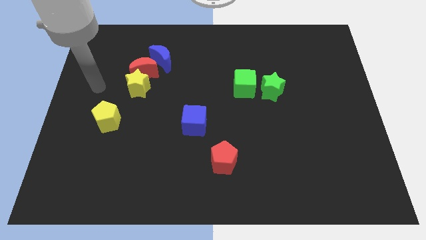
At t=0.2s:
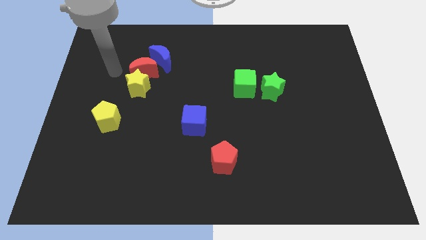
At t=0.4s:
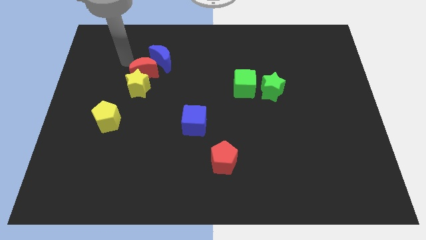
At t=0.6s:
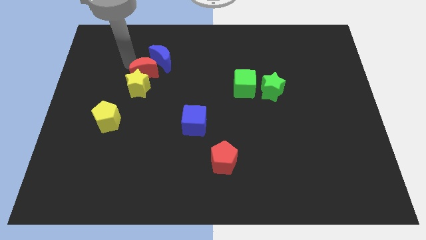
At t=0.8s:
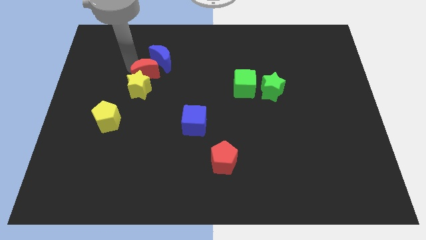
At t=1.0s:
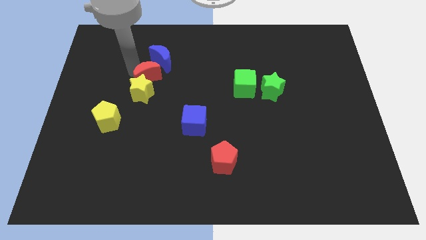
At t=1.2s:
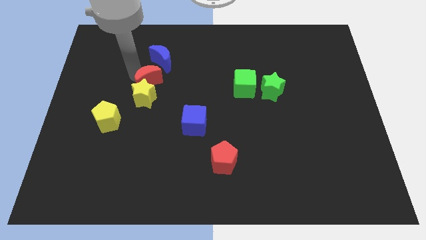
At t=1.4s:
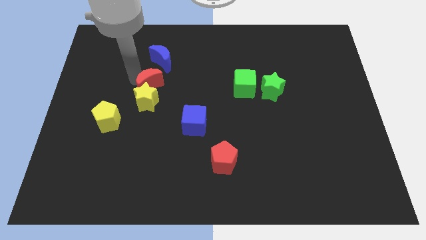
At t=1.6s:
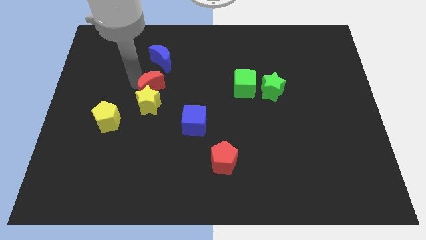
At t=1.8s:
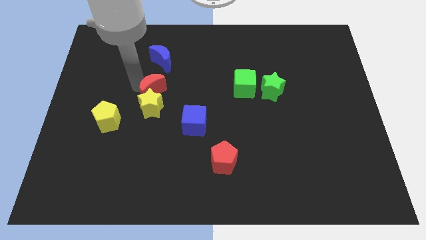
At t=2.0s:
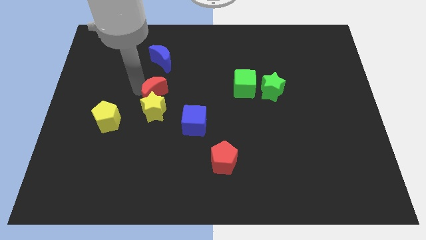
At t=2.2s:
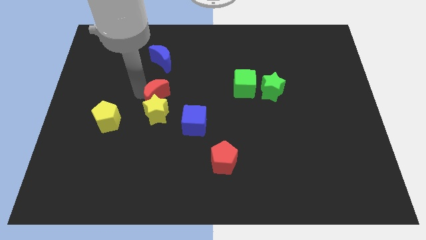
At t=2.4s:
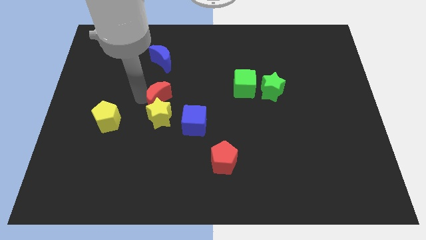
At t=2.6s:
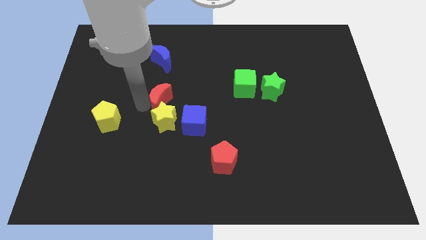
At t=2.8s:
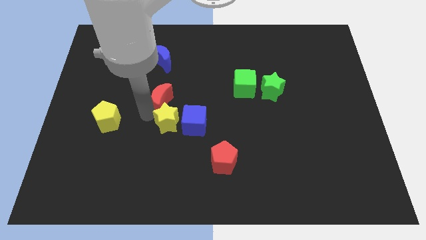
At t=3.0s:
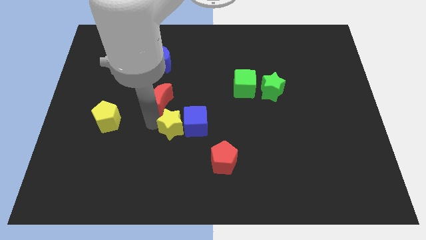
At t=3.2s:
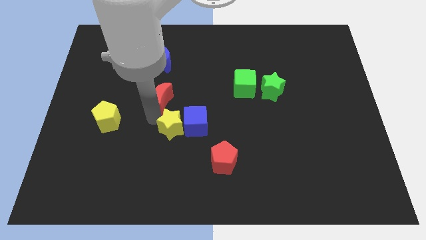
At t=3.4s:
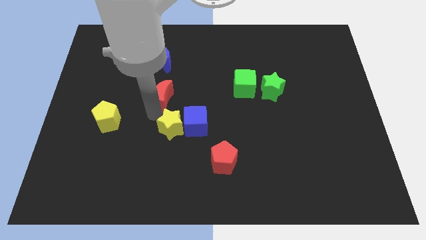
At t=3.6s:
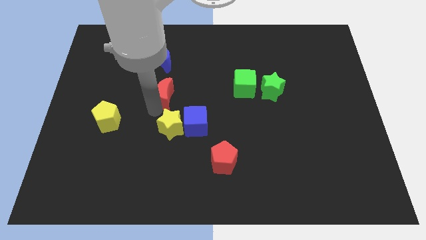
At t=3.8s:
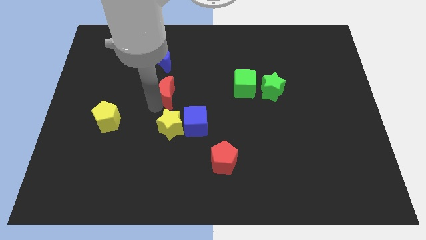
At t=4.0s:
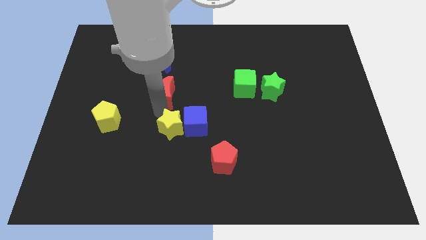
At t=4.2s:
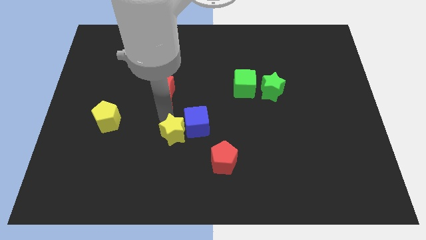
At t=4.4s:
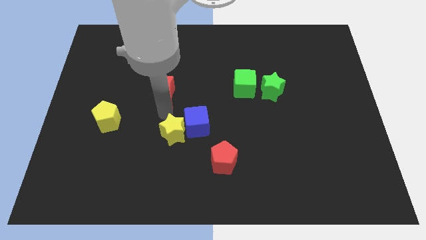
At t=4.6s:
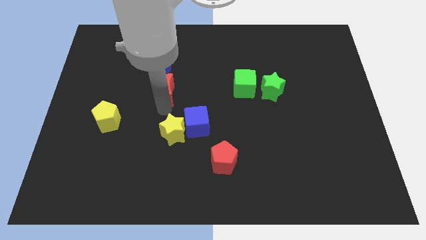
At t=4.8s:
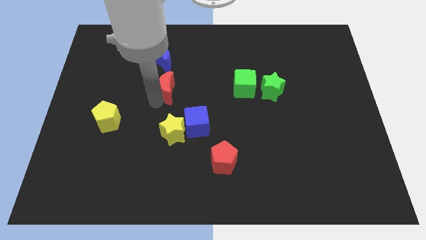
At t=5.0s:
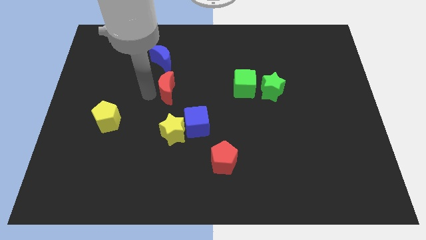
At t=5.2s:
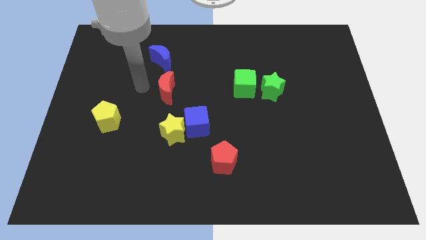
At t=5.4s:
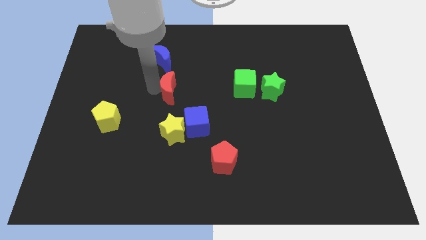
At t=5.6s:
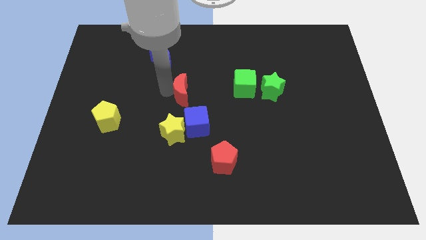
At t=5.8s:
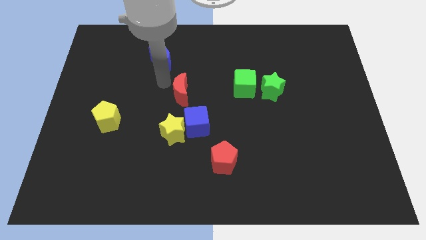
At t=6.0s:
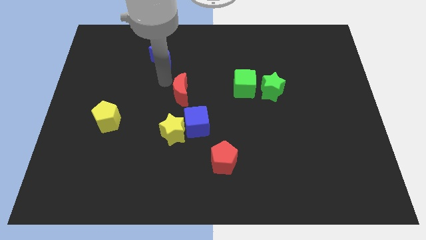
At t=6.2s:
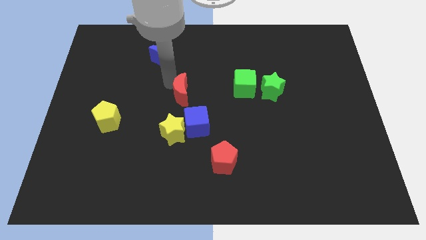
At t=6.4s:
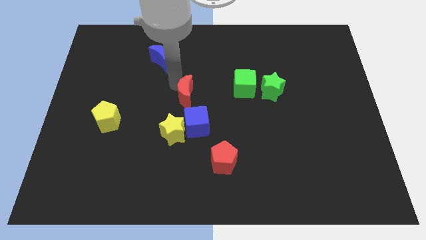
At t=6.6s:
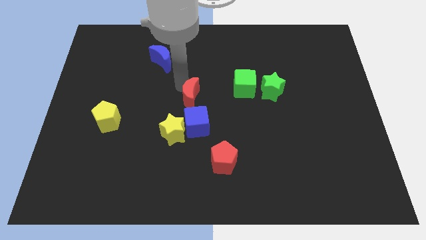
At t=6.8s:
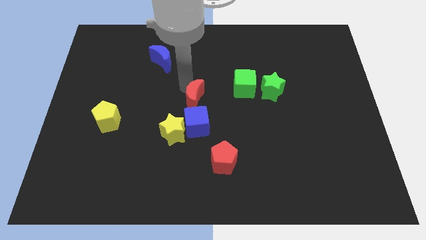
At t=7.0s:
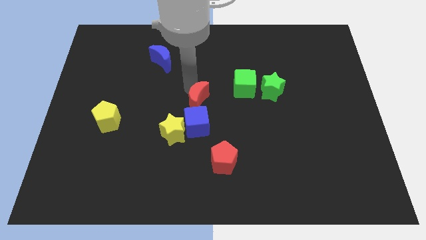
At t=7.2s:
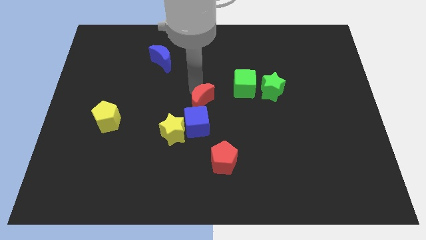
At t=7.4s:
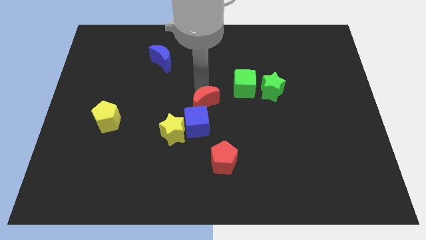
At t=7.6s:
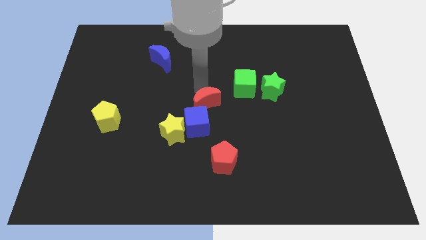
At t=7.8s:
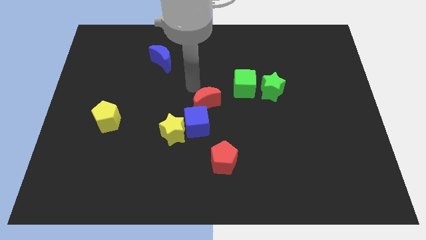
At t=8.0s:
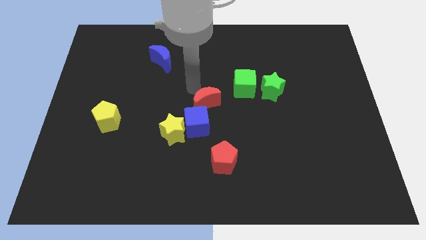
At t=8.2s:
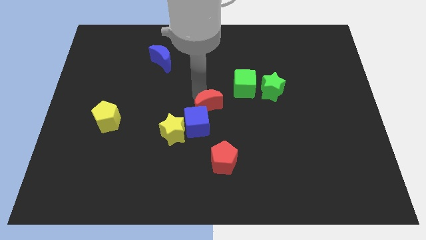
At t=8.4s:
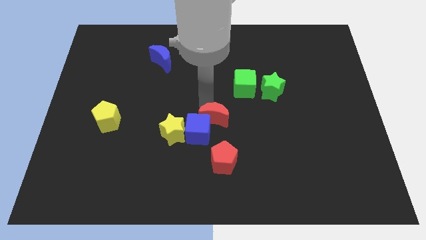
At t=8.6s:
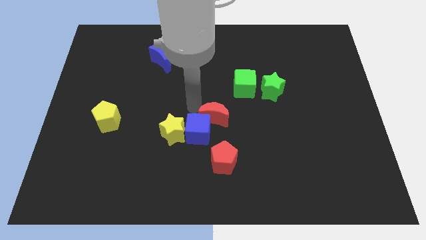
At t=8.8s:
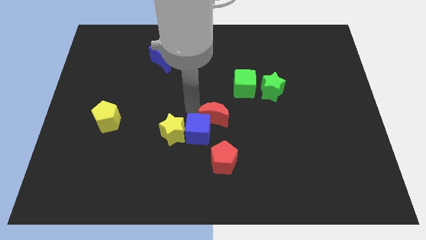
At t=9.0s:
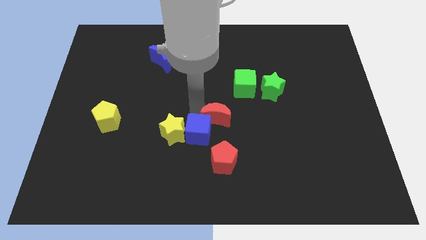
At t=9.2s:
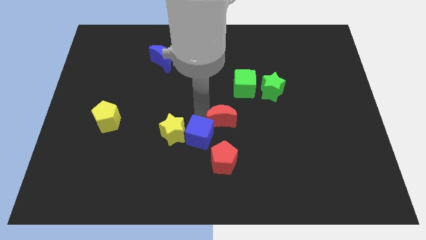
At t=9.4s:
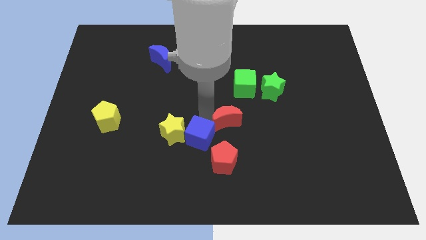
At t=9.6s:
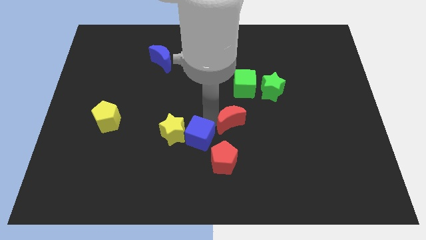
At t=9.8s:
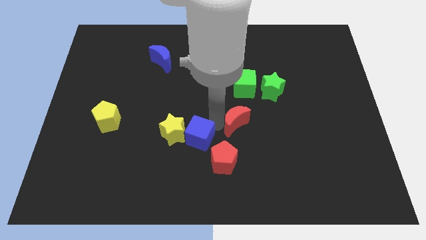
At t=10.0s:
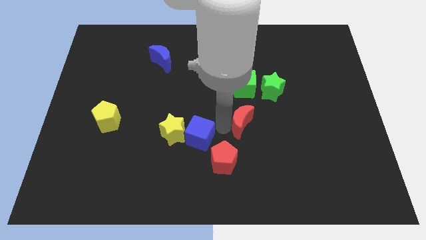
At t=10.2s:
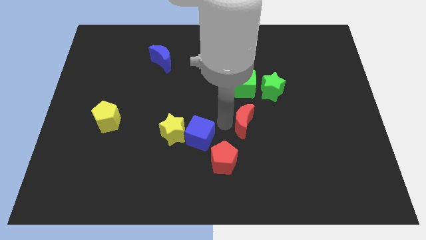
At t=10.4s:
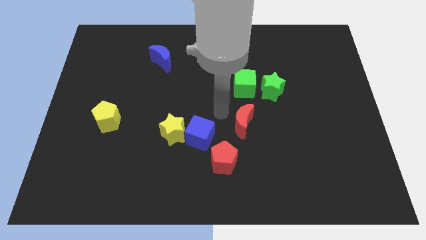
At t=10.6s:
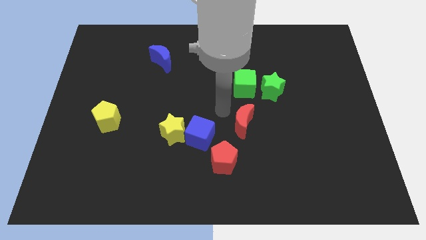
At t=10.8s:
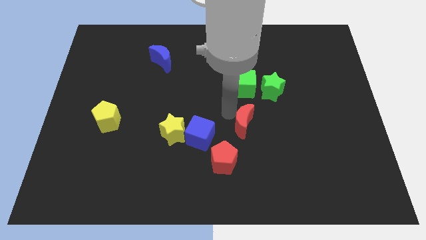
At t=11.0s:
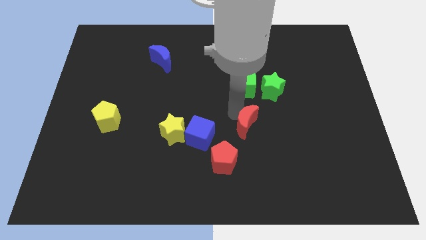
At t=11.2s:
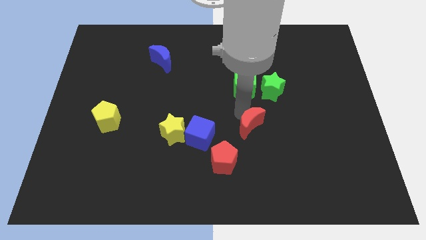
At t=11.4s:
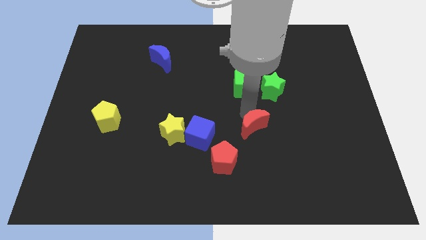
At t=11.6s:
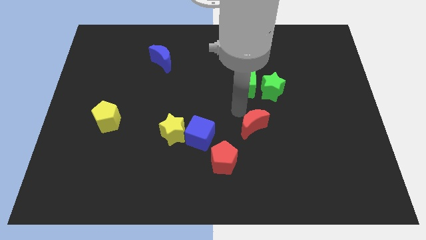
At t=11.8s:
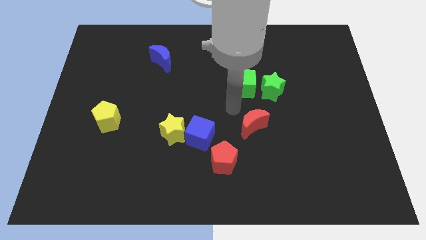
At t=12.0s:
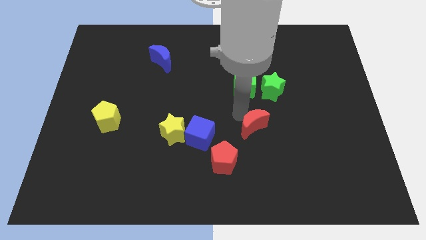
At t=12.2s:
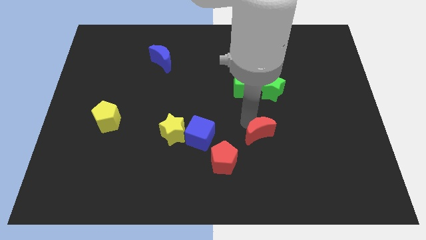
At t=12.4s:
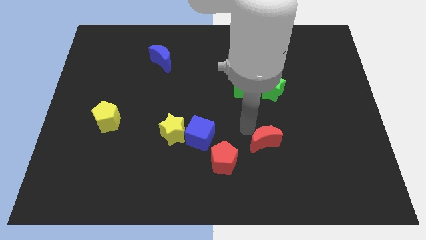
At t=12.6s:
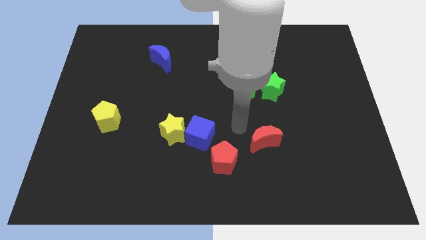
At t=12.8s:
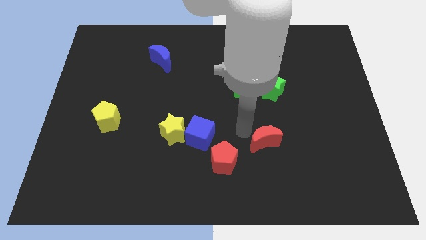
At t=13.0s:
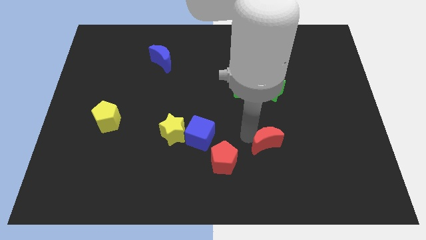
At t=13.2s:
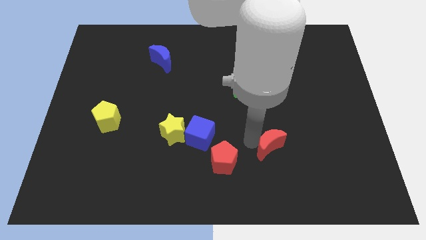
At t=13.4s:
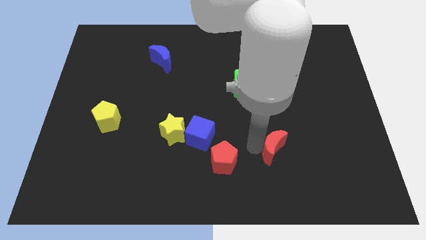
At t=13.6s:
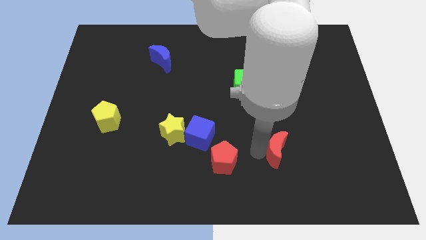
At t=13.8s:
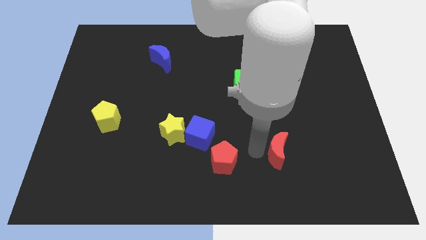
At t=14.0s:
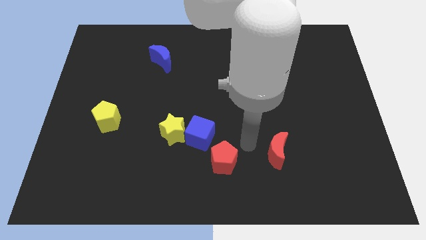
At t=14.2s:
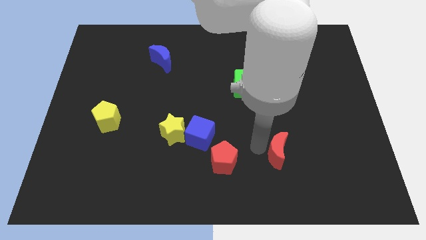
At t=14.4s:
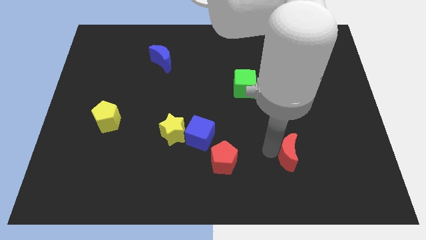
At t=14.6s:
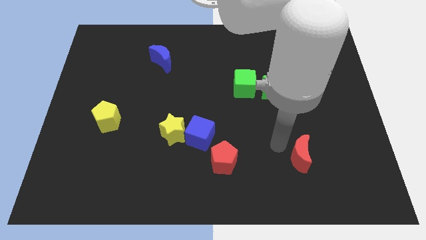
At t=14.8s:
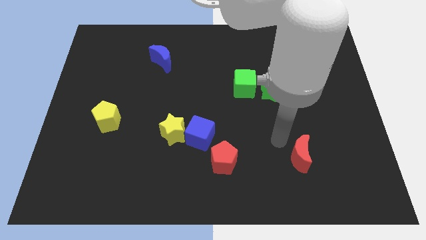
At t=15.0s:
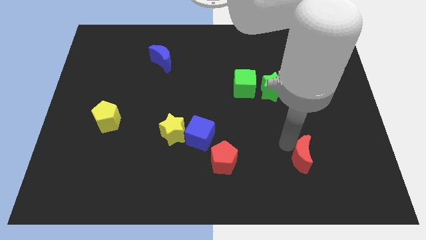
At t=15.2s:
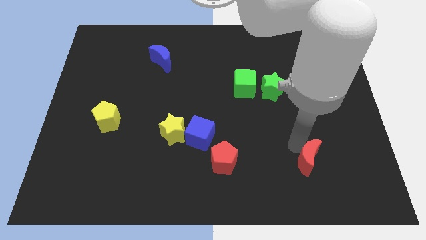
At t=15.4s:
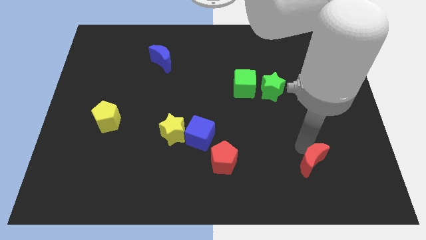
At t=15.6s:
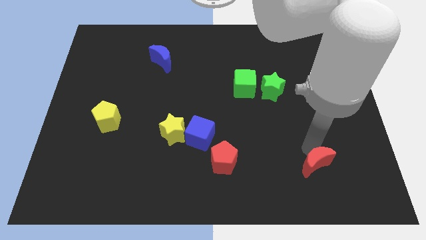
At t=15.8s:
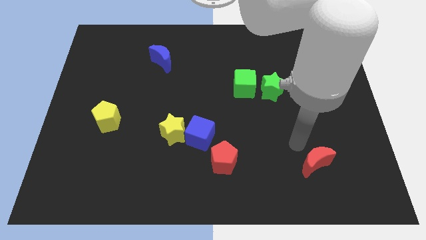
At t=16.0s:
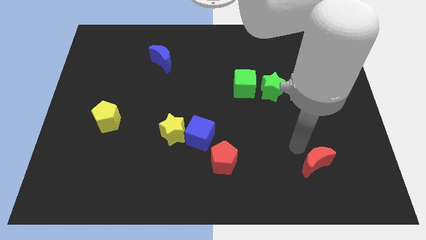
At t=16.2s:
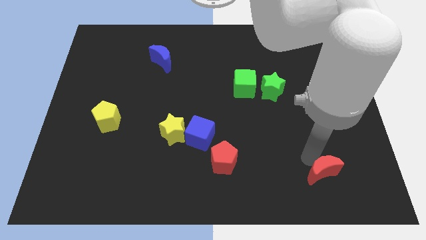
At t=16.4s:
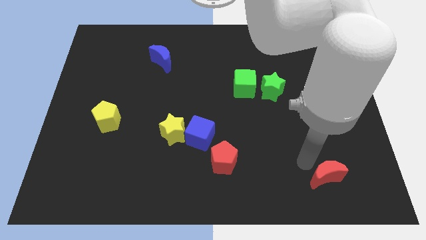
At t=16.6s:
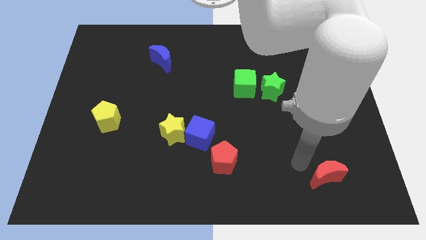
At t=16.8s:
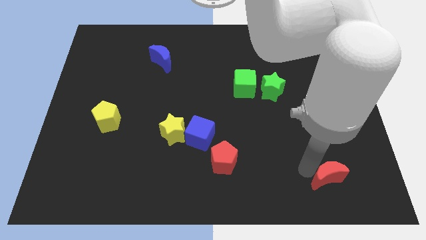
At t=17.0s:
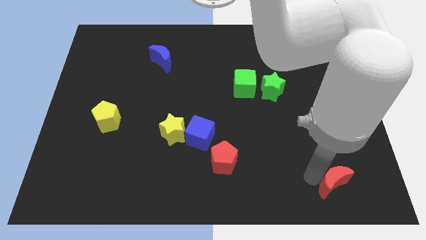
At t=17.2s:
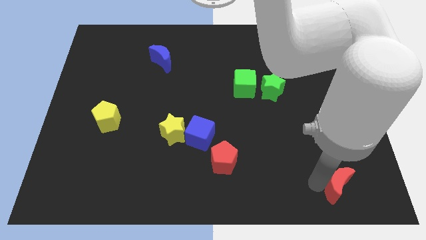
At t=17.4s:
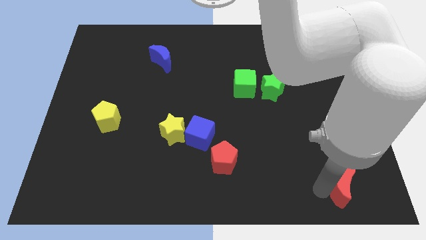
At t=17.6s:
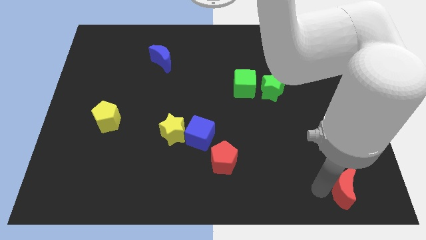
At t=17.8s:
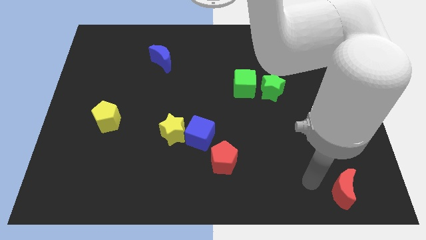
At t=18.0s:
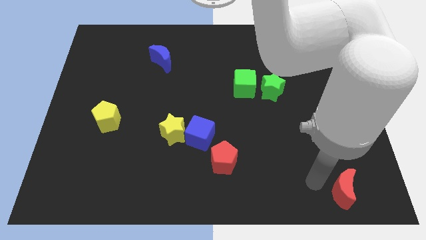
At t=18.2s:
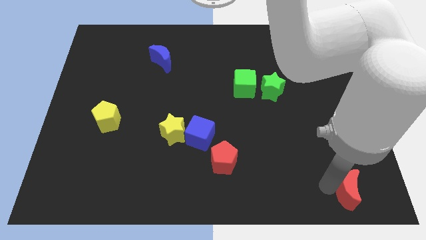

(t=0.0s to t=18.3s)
slide the red moon to the bottom right
